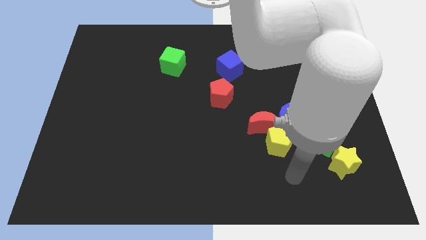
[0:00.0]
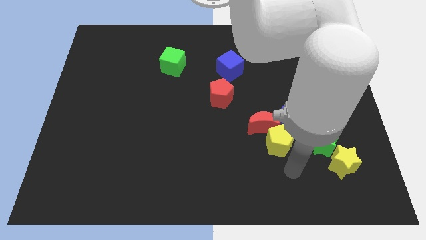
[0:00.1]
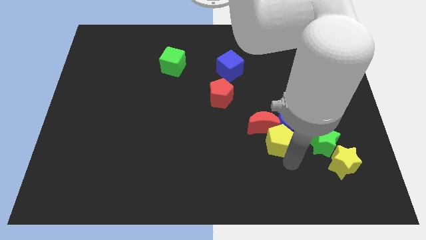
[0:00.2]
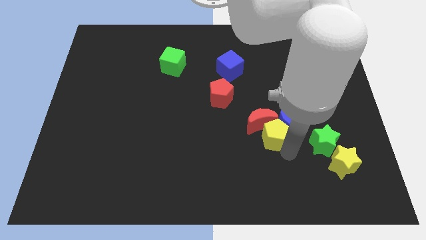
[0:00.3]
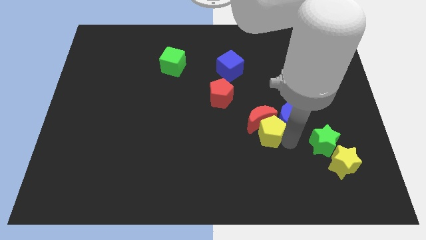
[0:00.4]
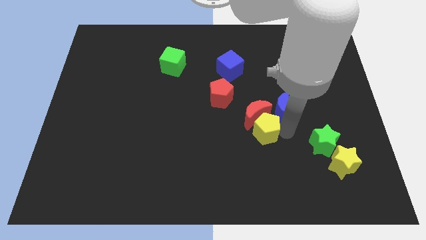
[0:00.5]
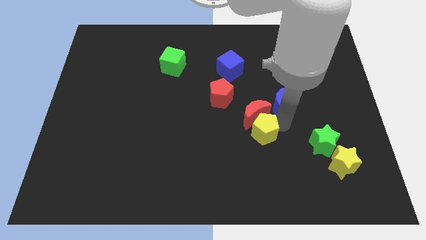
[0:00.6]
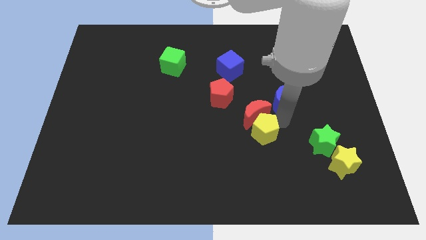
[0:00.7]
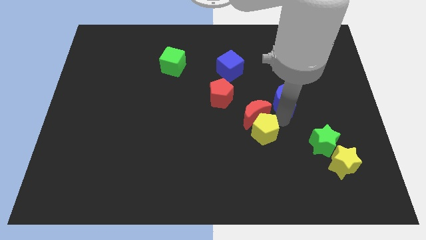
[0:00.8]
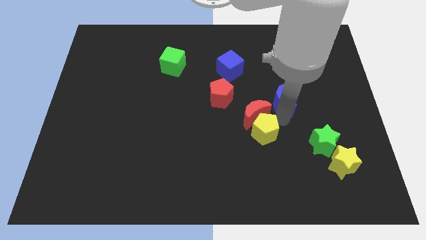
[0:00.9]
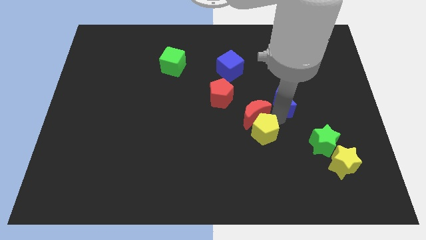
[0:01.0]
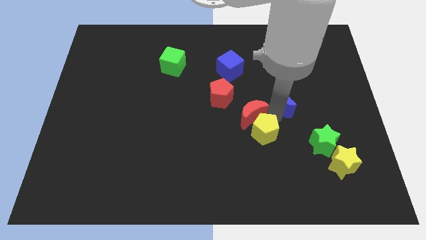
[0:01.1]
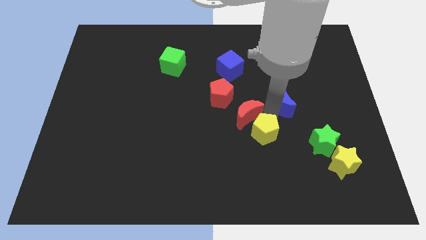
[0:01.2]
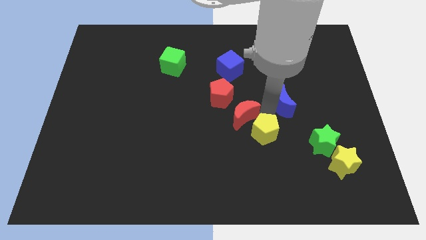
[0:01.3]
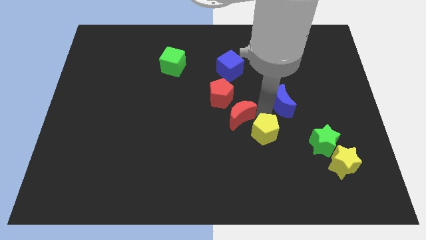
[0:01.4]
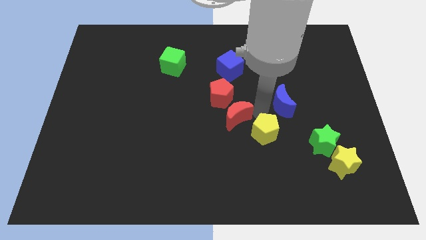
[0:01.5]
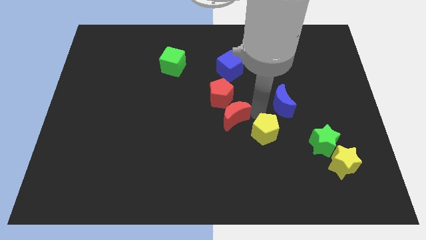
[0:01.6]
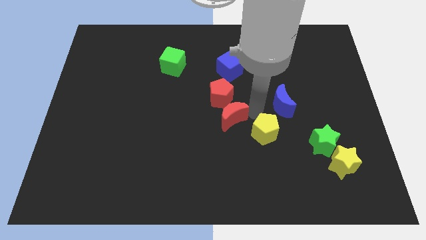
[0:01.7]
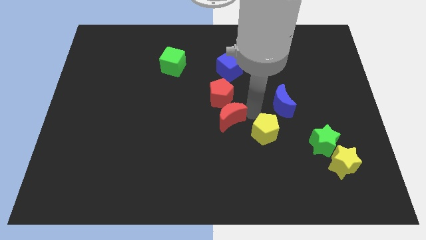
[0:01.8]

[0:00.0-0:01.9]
pull the red moon apart from the blue moon and yellow pentagon

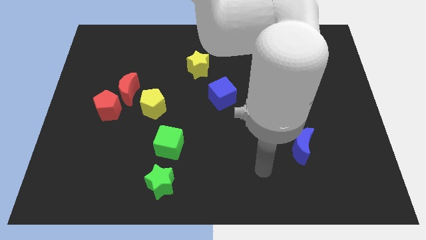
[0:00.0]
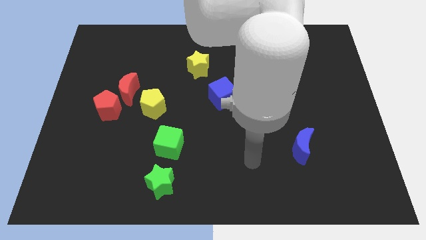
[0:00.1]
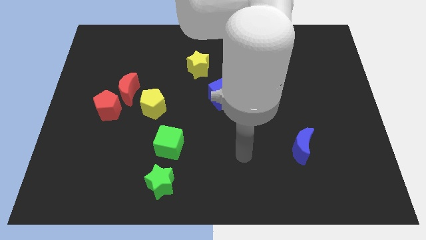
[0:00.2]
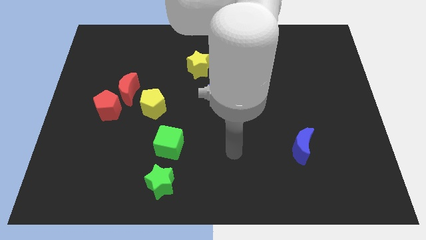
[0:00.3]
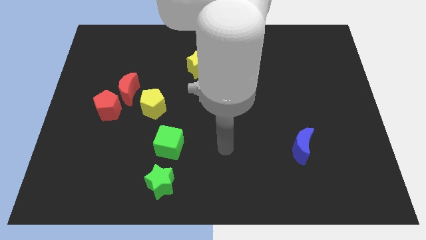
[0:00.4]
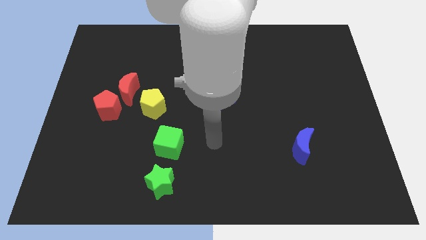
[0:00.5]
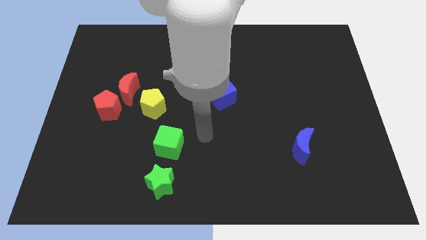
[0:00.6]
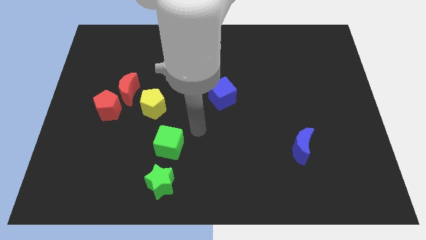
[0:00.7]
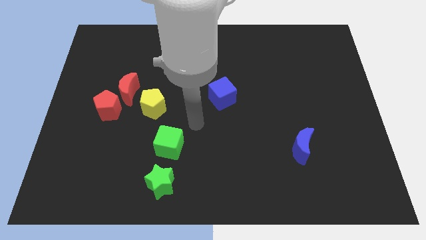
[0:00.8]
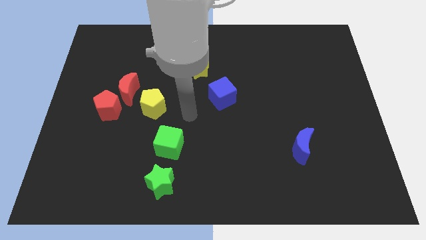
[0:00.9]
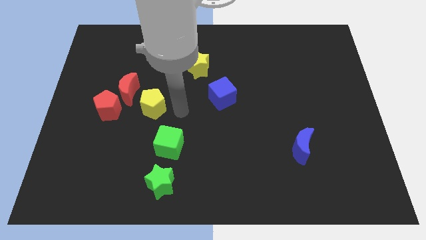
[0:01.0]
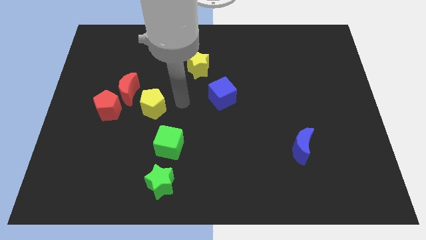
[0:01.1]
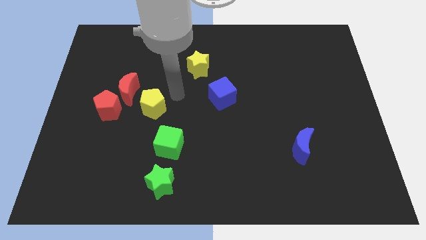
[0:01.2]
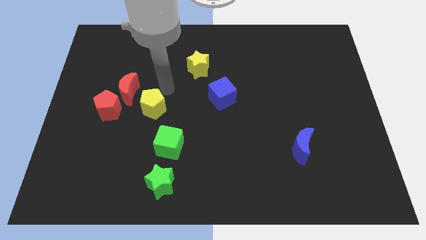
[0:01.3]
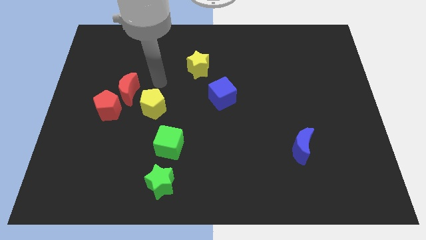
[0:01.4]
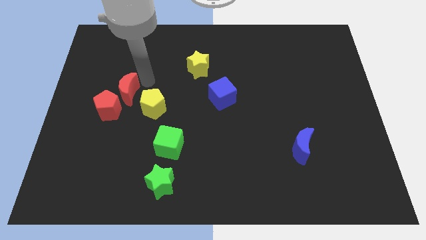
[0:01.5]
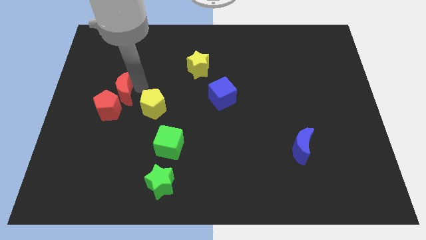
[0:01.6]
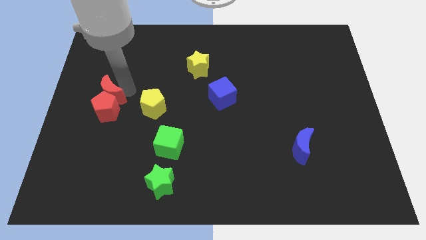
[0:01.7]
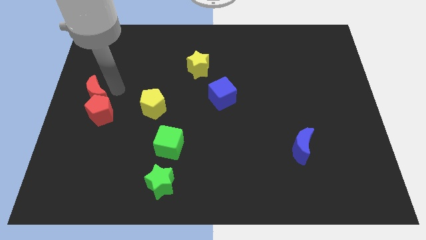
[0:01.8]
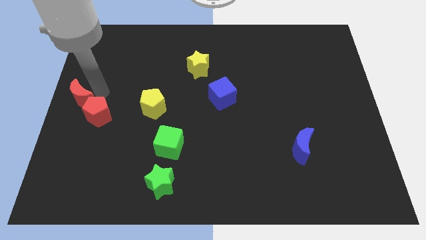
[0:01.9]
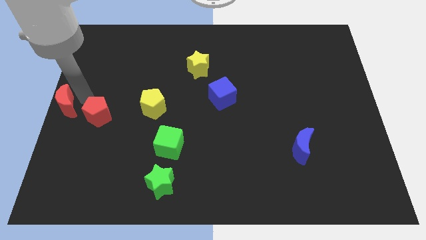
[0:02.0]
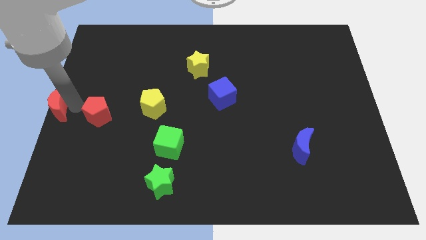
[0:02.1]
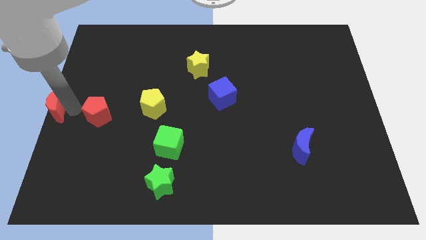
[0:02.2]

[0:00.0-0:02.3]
move the red pentagon away from the red moon

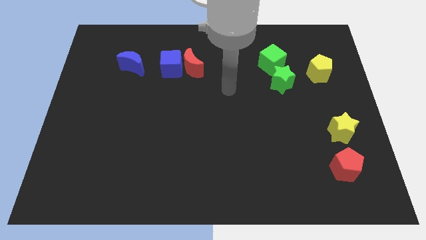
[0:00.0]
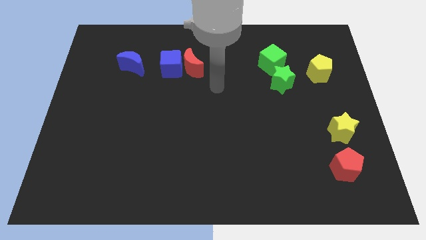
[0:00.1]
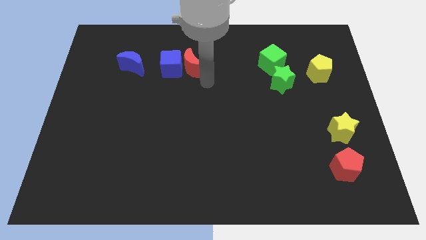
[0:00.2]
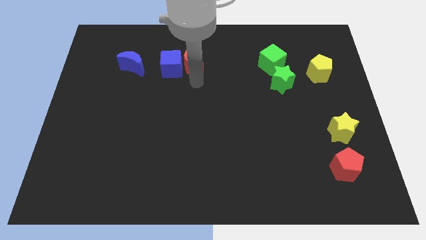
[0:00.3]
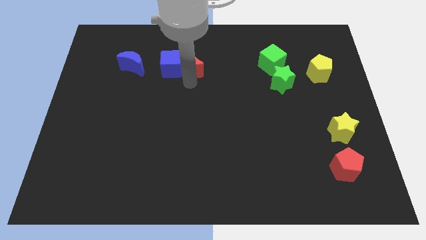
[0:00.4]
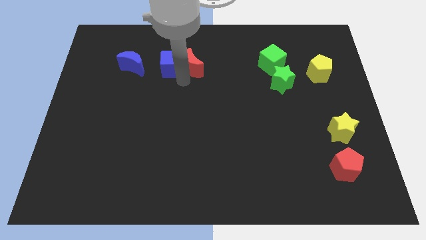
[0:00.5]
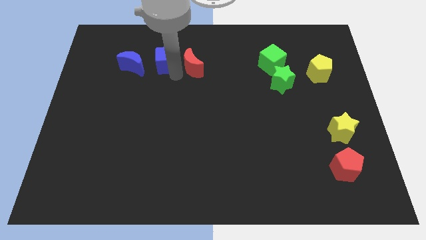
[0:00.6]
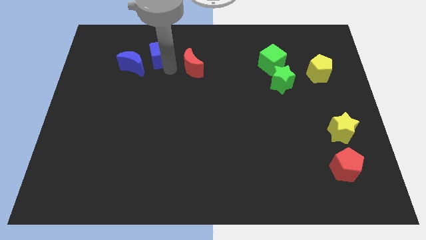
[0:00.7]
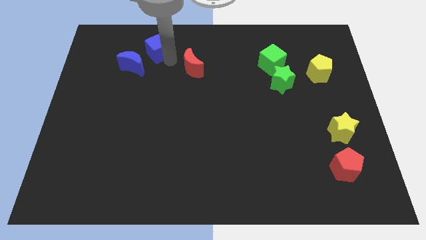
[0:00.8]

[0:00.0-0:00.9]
pull the red moon apart from the blue cube

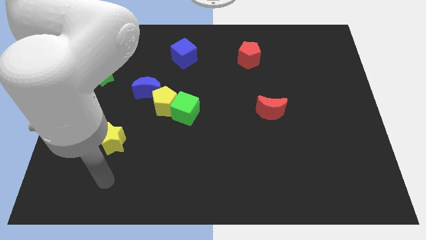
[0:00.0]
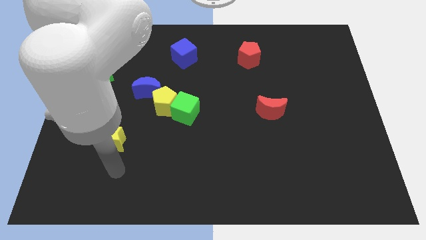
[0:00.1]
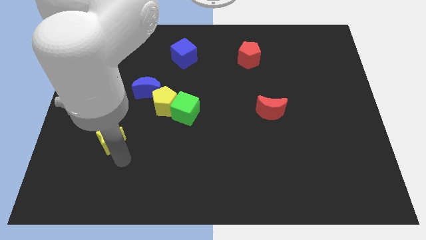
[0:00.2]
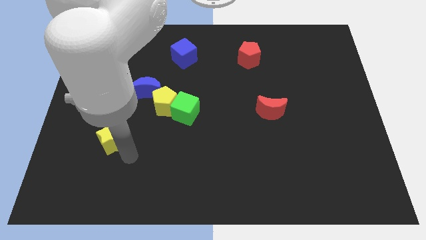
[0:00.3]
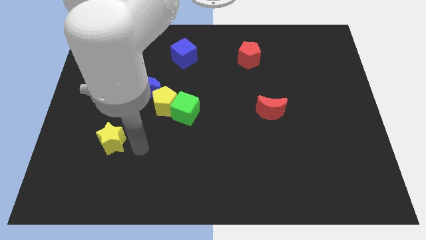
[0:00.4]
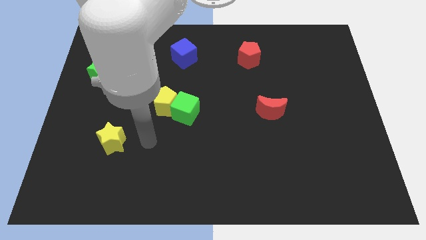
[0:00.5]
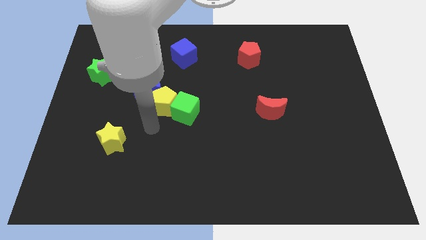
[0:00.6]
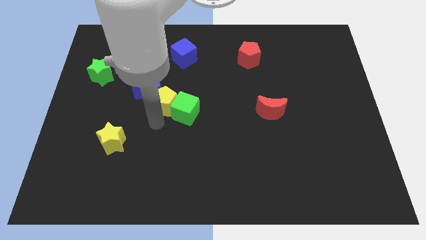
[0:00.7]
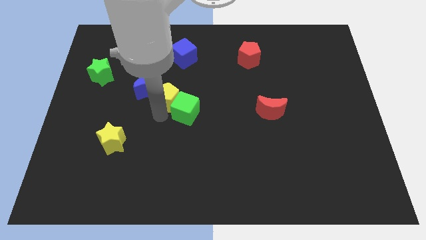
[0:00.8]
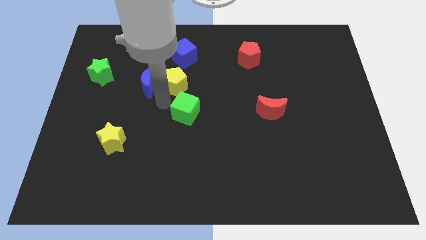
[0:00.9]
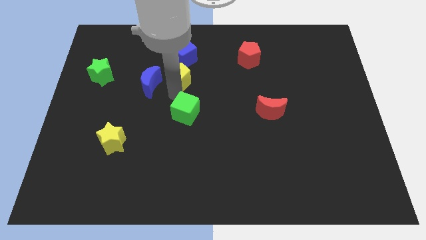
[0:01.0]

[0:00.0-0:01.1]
move the green cube away from the yellow pentagon

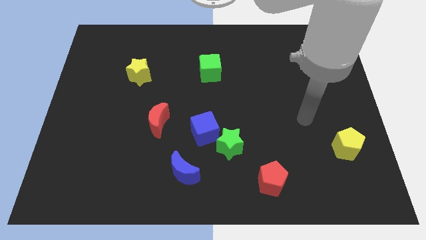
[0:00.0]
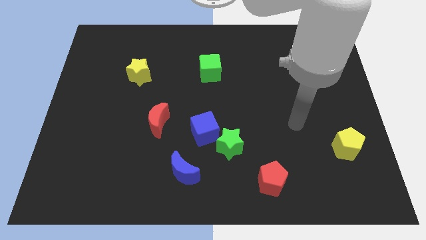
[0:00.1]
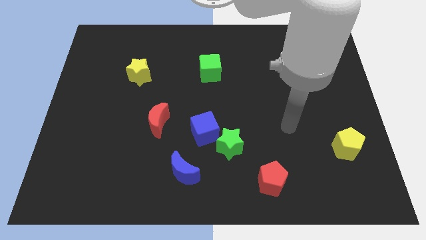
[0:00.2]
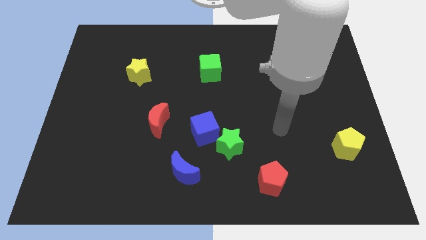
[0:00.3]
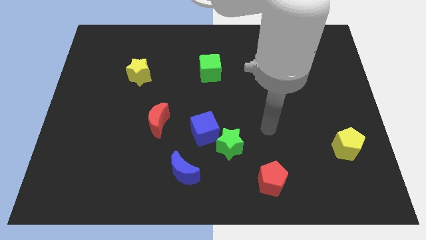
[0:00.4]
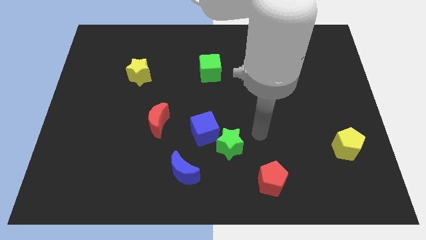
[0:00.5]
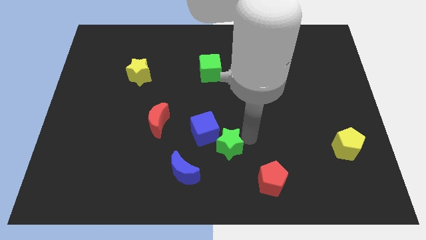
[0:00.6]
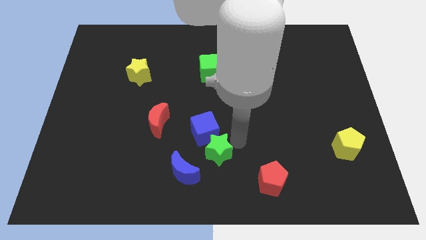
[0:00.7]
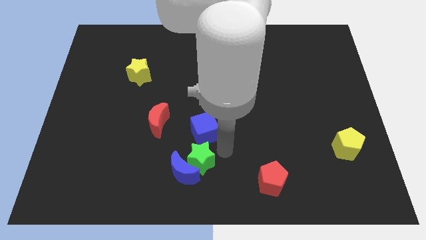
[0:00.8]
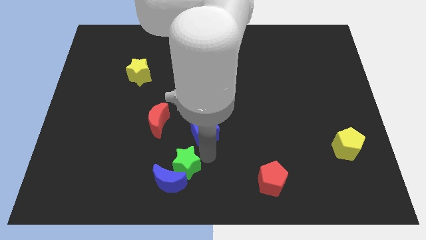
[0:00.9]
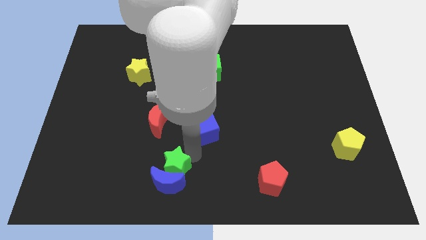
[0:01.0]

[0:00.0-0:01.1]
separate the blue cube from the green star

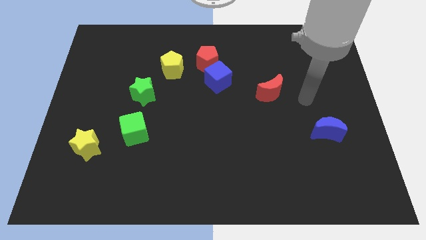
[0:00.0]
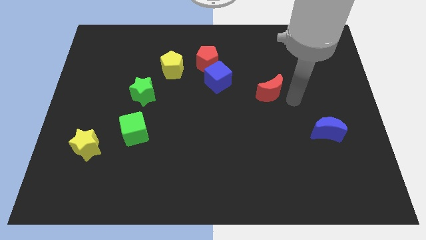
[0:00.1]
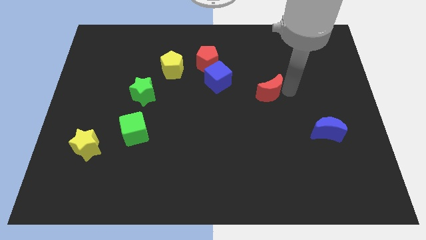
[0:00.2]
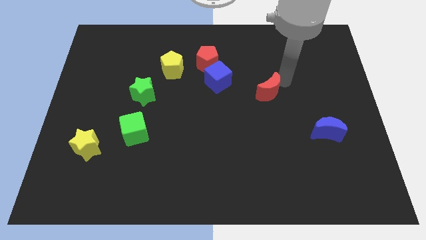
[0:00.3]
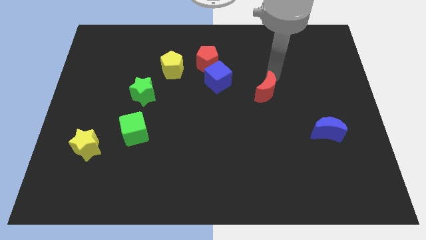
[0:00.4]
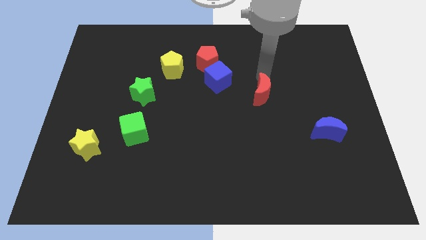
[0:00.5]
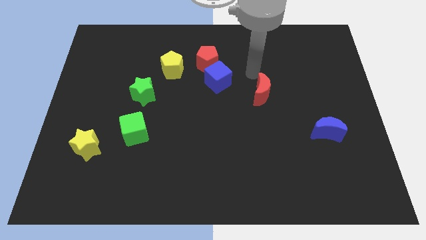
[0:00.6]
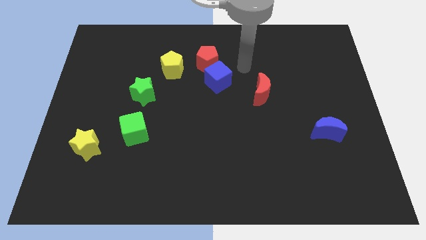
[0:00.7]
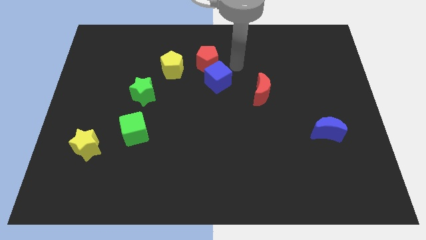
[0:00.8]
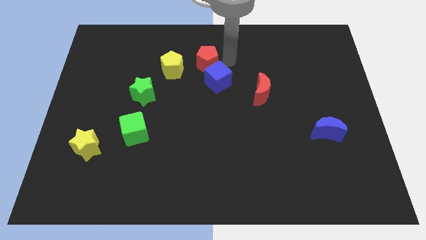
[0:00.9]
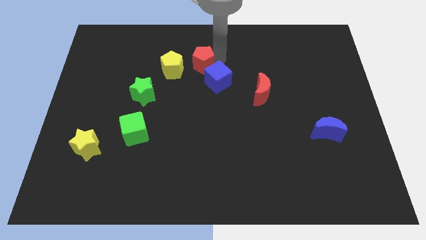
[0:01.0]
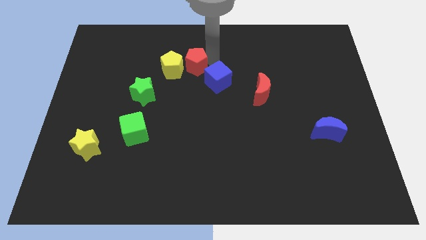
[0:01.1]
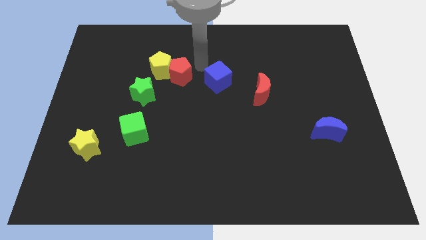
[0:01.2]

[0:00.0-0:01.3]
separate the blue cube from the red pentagon

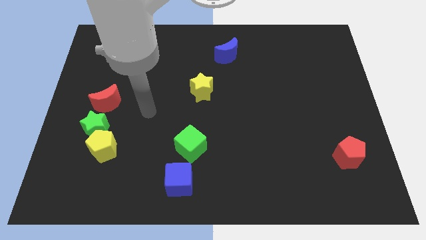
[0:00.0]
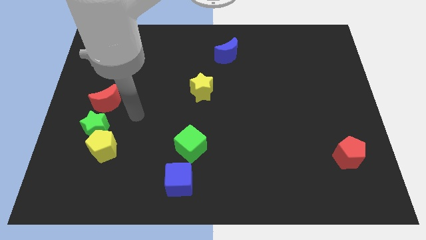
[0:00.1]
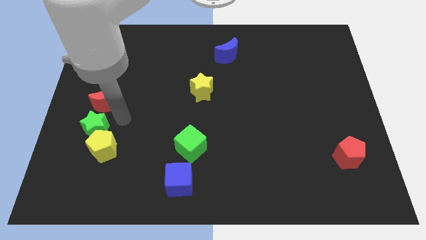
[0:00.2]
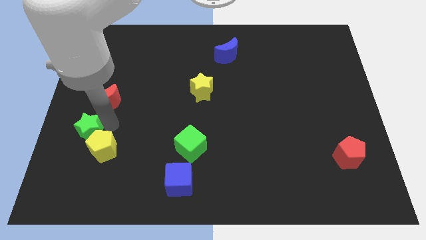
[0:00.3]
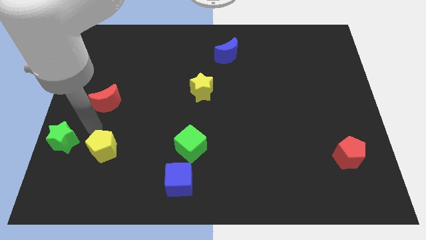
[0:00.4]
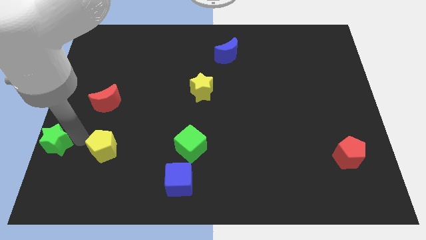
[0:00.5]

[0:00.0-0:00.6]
pull the yellow pentagon apart from the green star
